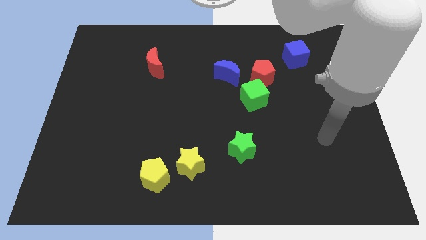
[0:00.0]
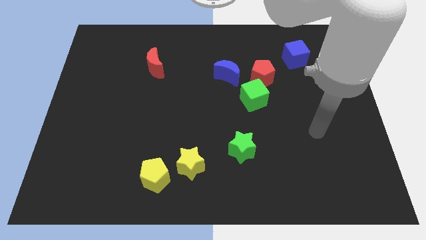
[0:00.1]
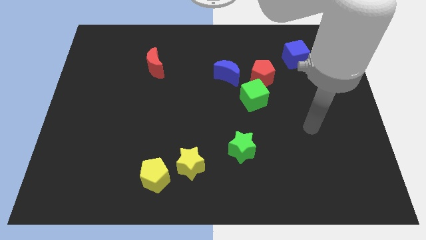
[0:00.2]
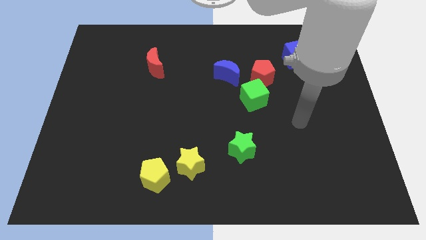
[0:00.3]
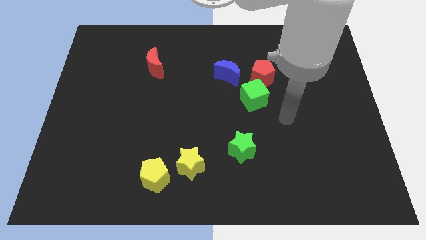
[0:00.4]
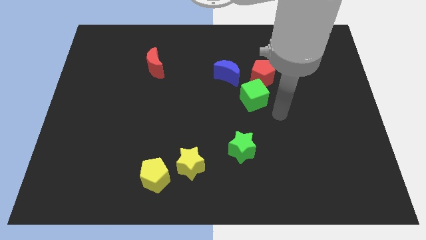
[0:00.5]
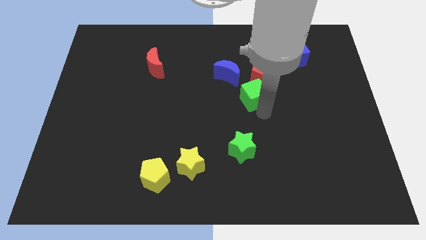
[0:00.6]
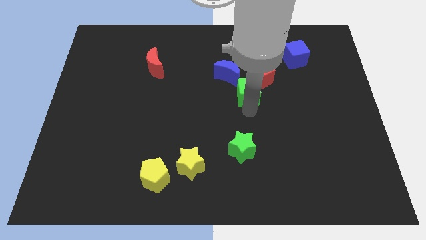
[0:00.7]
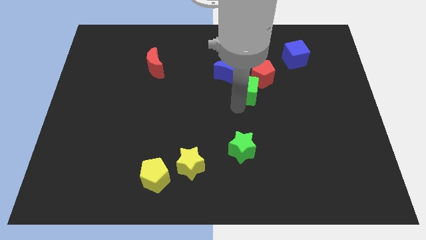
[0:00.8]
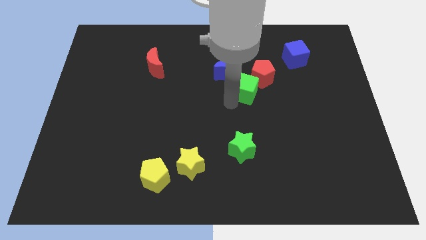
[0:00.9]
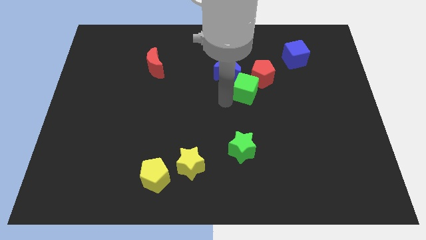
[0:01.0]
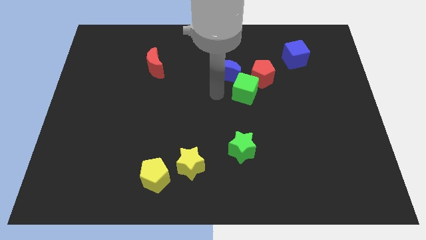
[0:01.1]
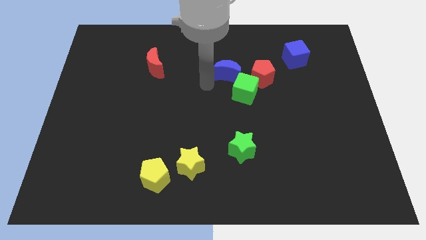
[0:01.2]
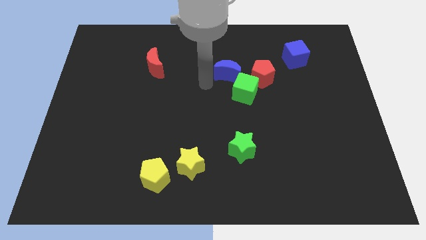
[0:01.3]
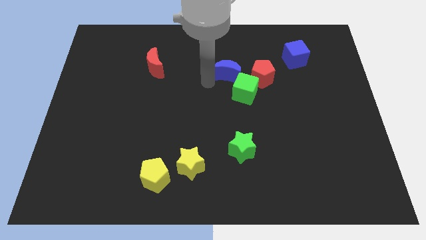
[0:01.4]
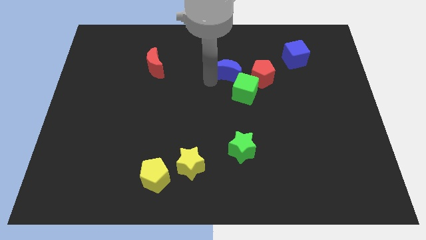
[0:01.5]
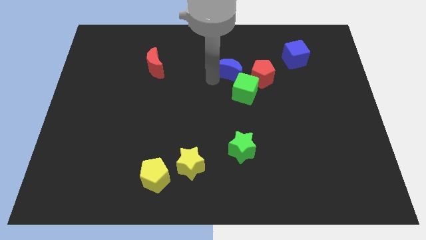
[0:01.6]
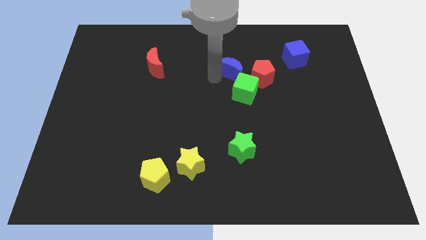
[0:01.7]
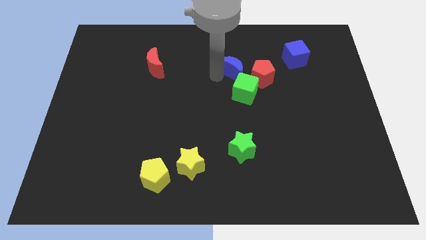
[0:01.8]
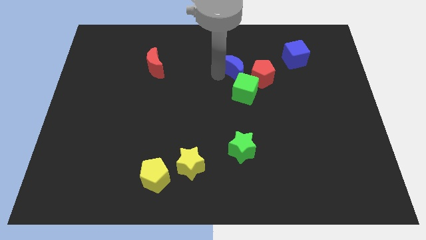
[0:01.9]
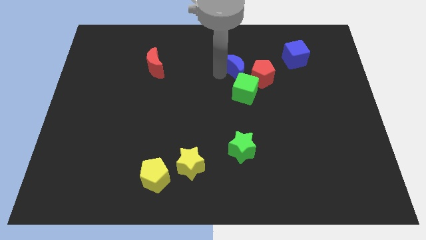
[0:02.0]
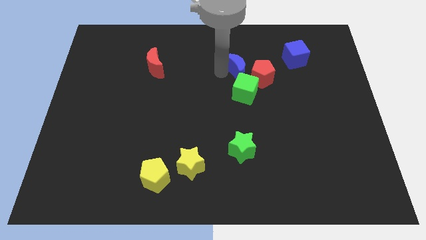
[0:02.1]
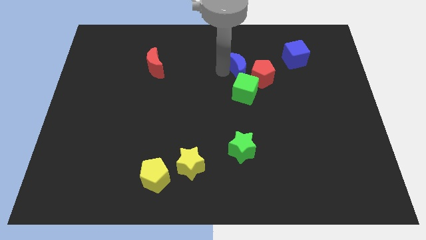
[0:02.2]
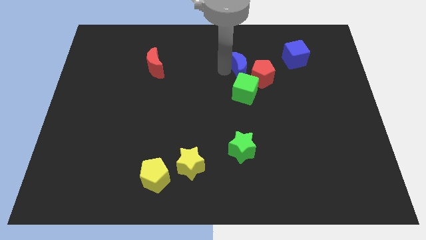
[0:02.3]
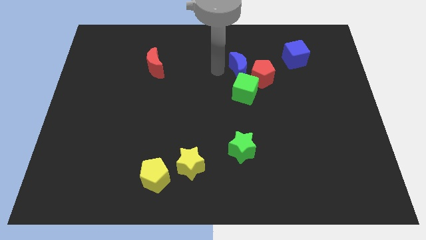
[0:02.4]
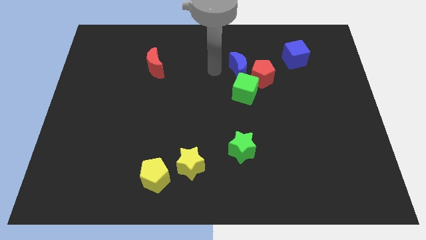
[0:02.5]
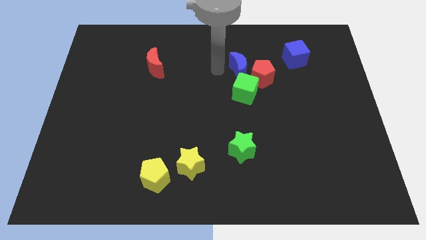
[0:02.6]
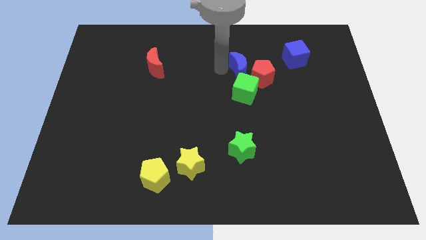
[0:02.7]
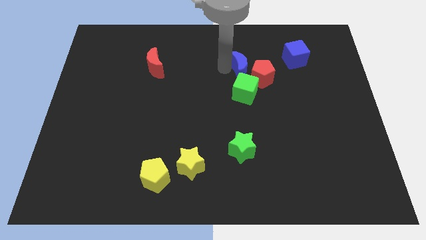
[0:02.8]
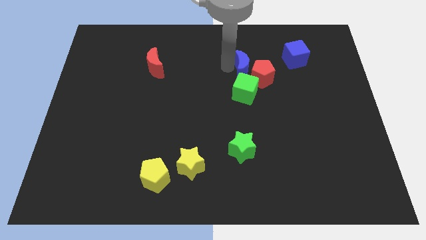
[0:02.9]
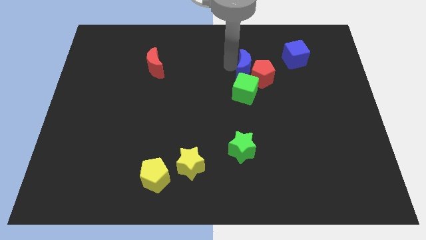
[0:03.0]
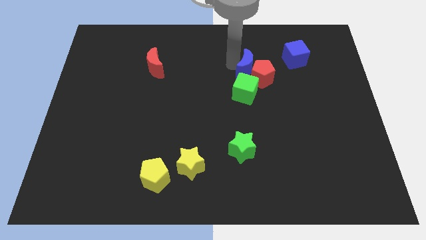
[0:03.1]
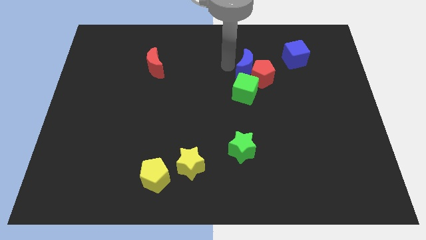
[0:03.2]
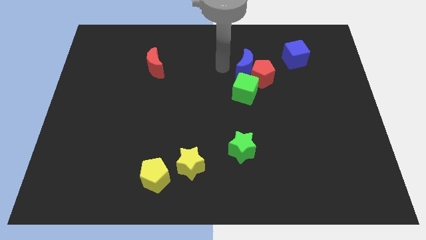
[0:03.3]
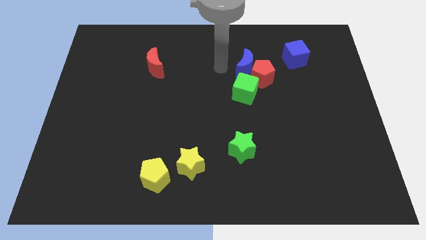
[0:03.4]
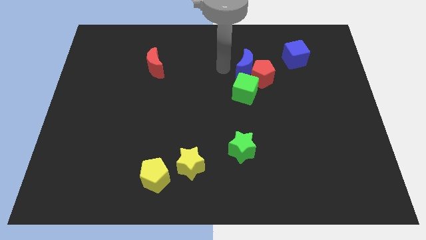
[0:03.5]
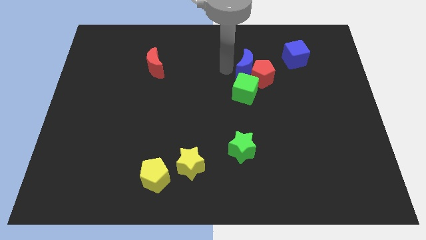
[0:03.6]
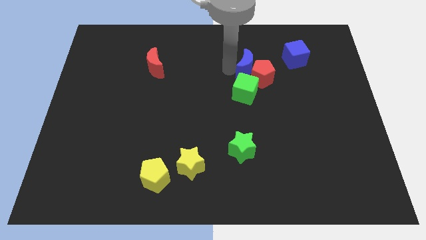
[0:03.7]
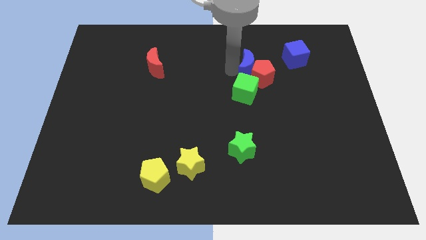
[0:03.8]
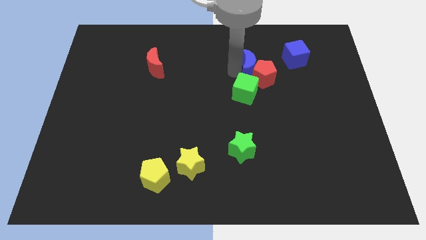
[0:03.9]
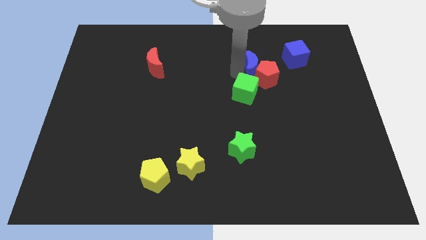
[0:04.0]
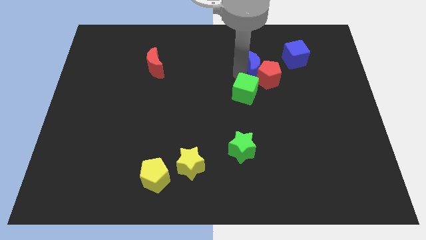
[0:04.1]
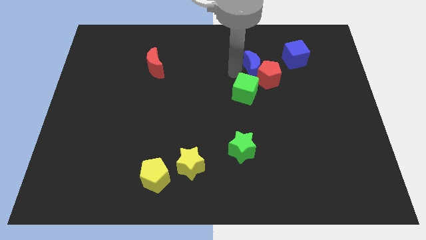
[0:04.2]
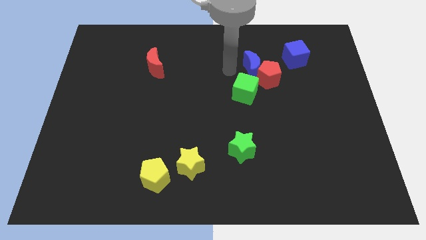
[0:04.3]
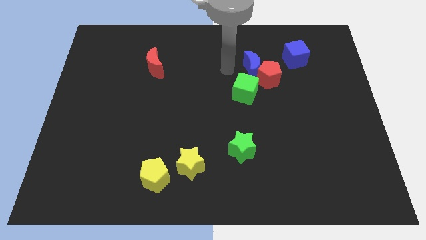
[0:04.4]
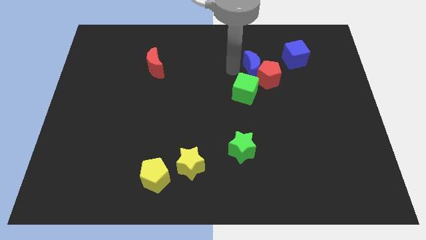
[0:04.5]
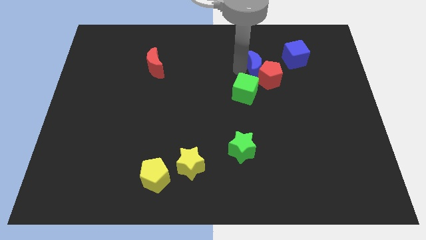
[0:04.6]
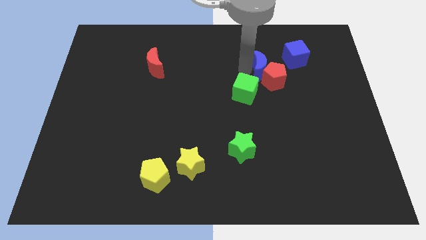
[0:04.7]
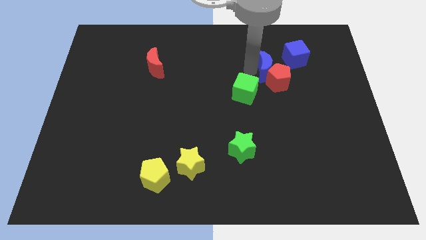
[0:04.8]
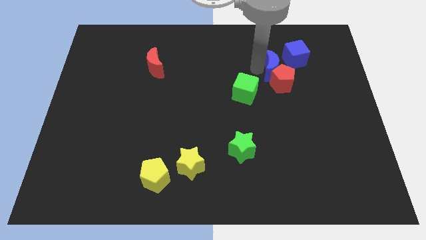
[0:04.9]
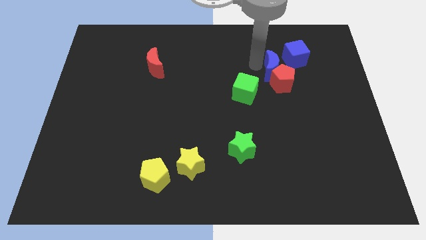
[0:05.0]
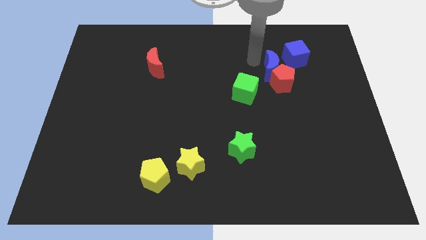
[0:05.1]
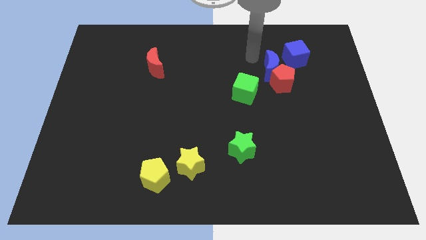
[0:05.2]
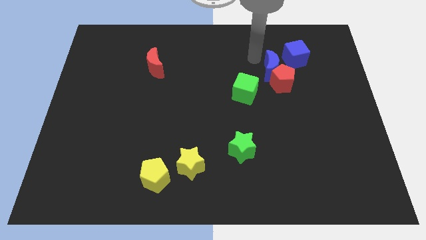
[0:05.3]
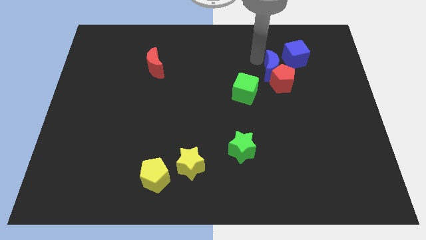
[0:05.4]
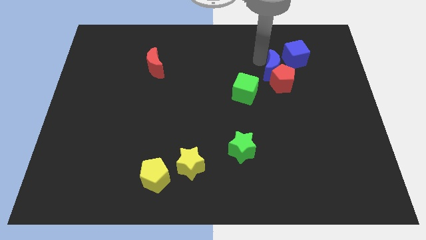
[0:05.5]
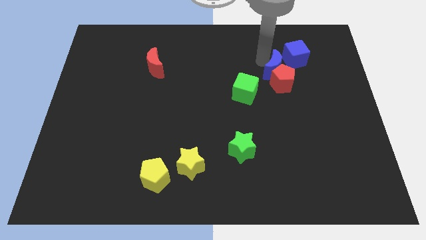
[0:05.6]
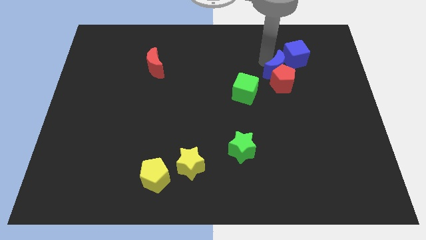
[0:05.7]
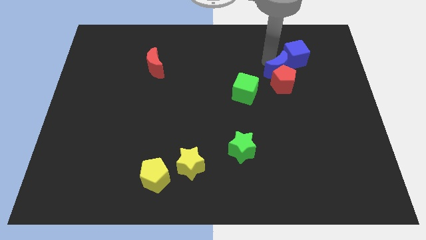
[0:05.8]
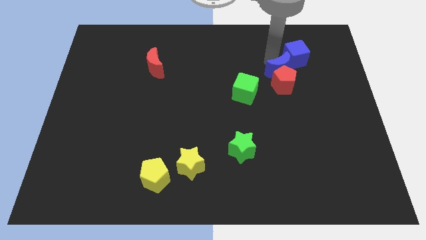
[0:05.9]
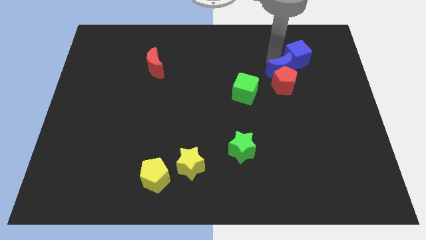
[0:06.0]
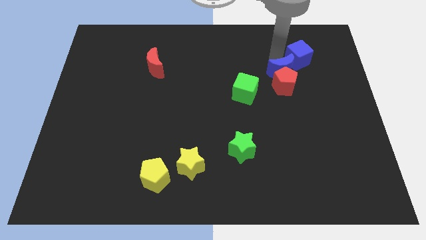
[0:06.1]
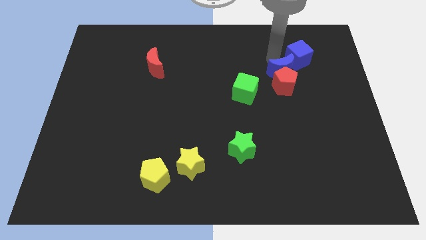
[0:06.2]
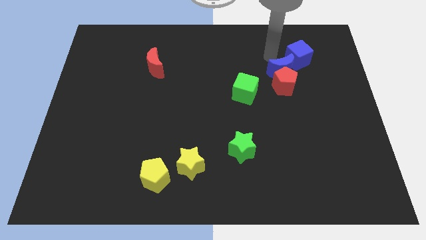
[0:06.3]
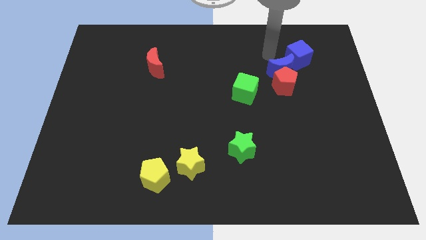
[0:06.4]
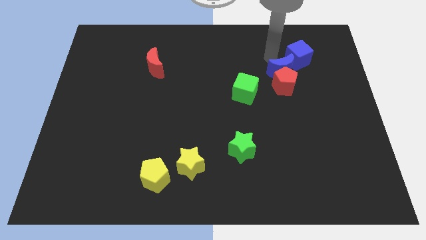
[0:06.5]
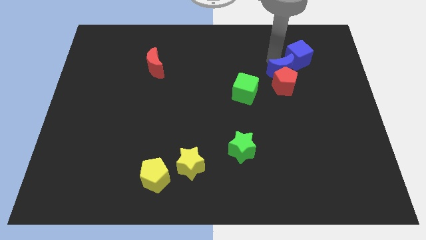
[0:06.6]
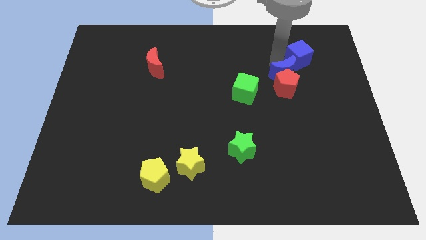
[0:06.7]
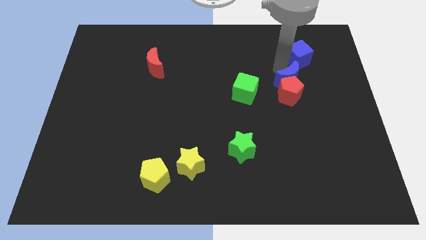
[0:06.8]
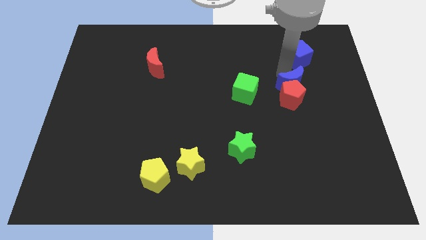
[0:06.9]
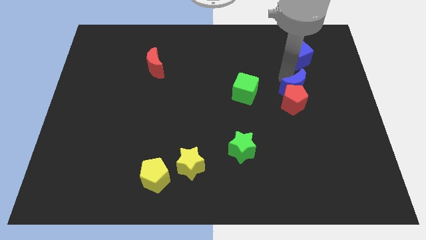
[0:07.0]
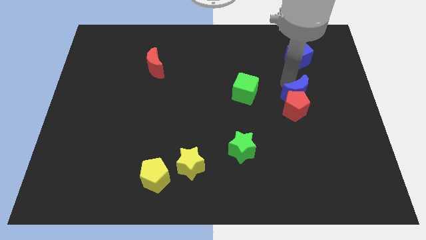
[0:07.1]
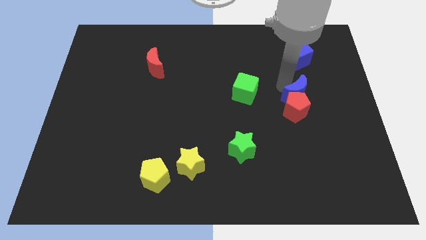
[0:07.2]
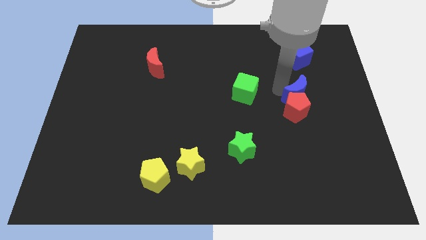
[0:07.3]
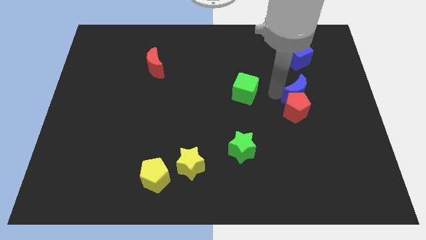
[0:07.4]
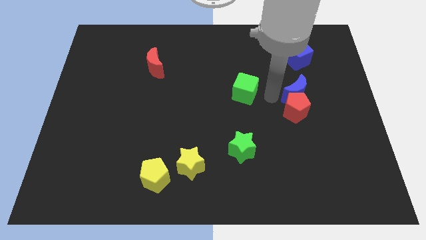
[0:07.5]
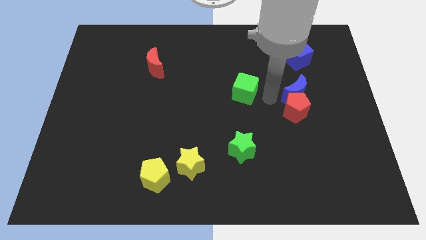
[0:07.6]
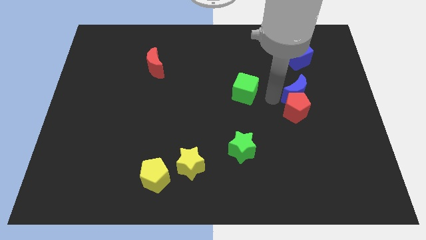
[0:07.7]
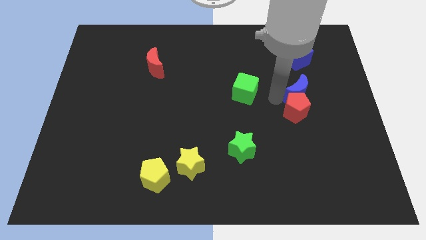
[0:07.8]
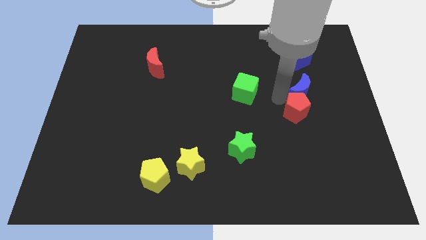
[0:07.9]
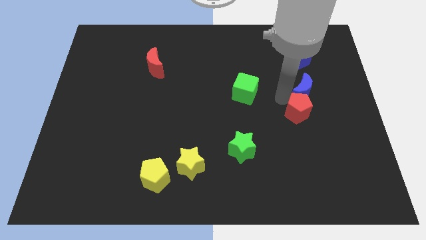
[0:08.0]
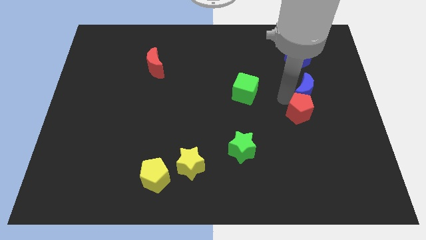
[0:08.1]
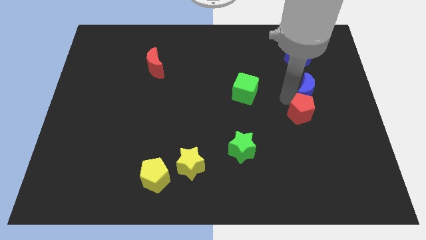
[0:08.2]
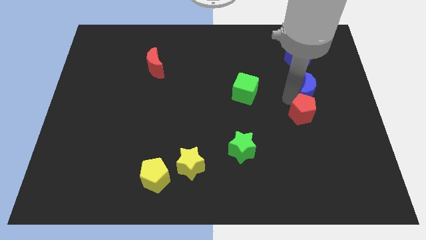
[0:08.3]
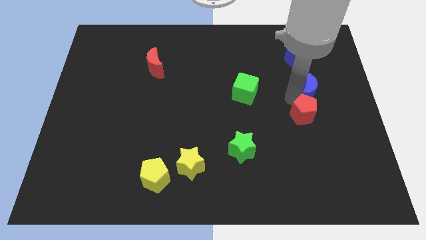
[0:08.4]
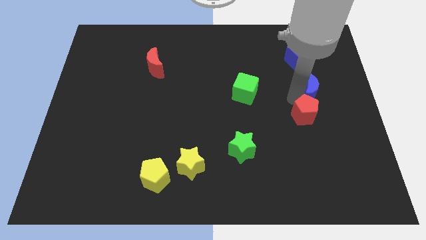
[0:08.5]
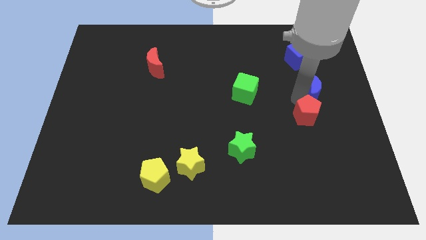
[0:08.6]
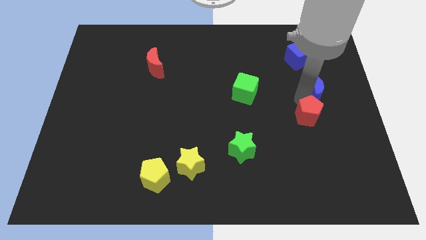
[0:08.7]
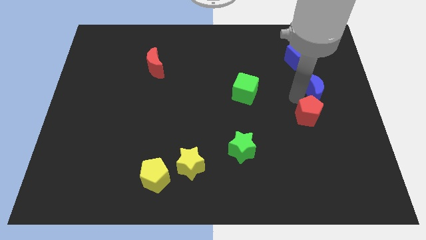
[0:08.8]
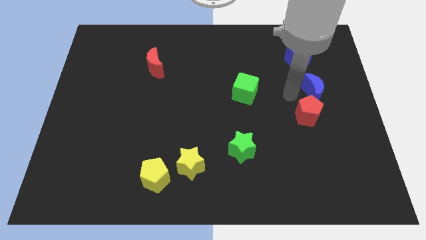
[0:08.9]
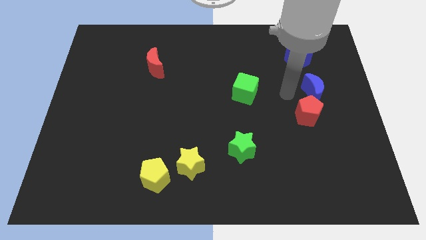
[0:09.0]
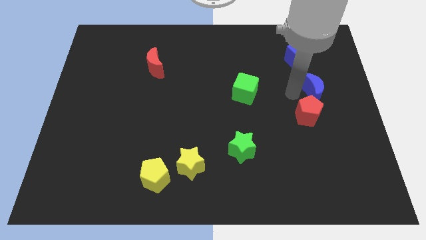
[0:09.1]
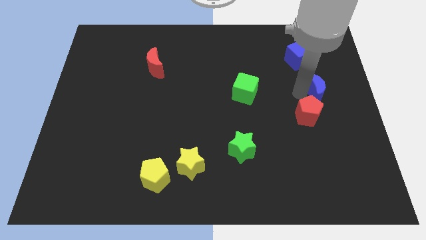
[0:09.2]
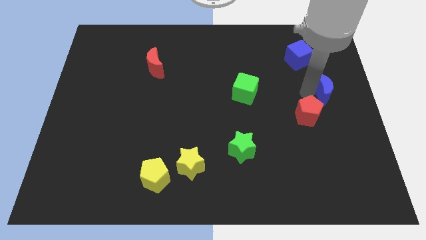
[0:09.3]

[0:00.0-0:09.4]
push the blue moon to the center right
